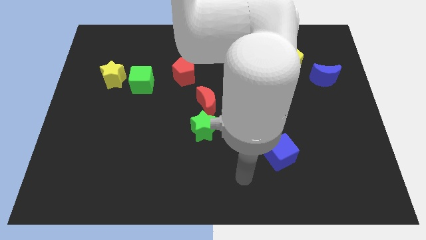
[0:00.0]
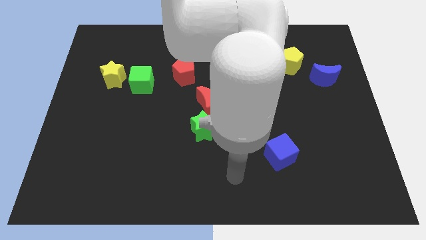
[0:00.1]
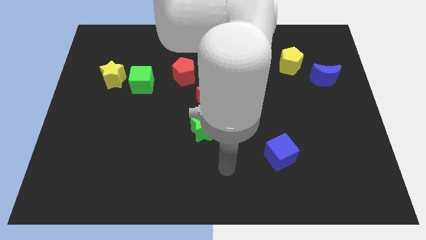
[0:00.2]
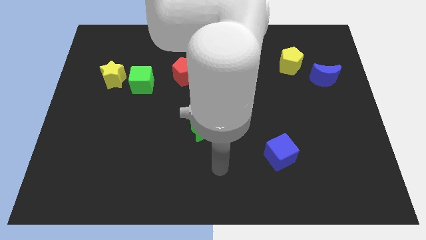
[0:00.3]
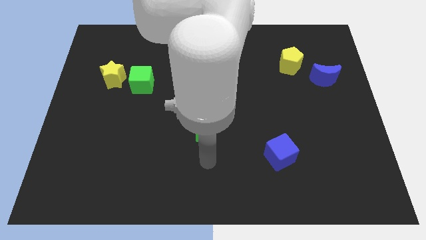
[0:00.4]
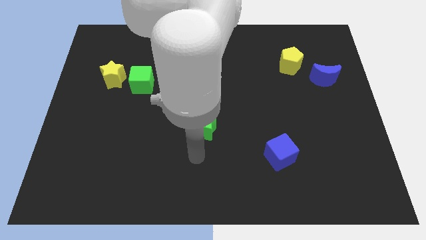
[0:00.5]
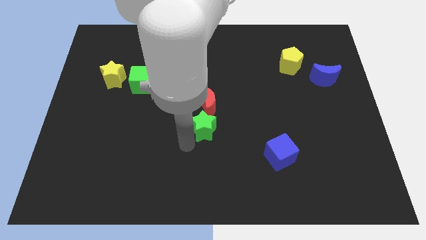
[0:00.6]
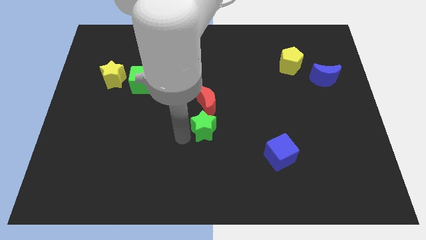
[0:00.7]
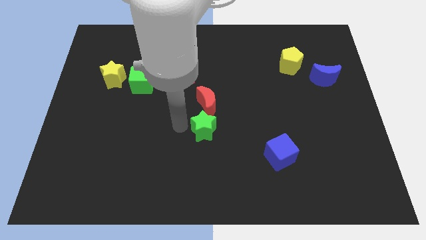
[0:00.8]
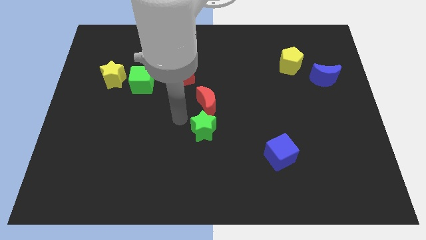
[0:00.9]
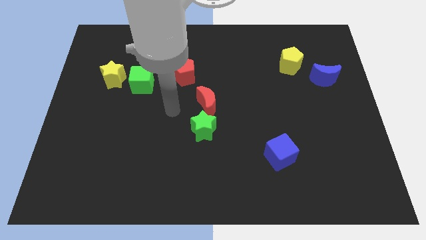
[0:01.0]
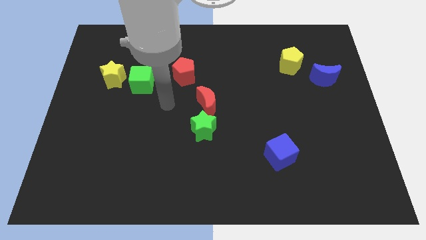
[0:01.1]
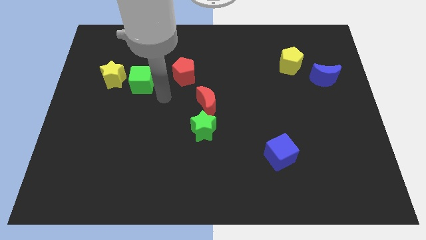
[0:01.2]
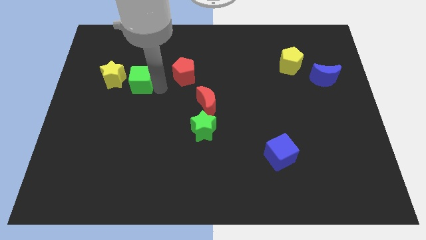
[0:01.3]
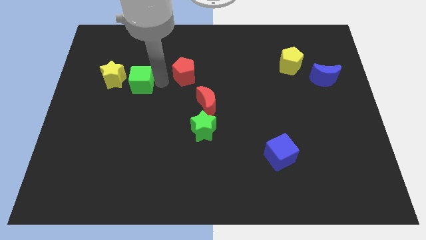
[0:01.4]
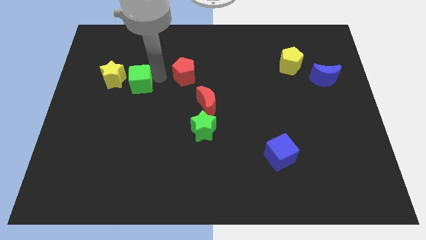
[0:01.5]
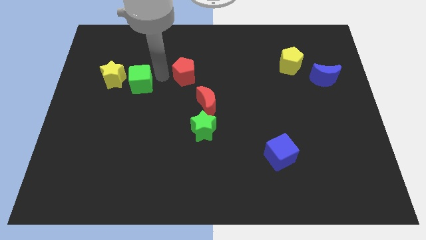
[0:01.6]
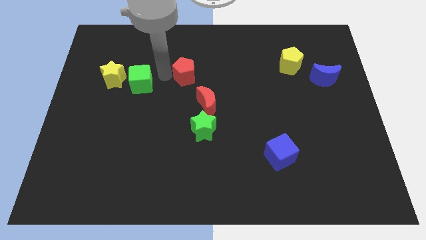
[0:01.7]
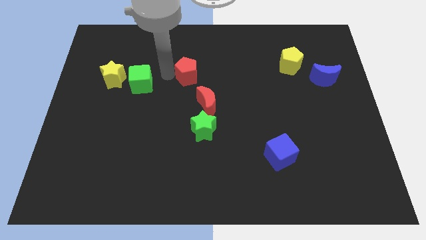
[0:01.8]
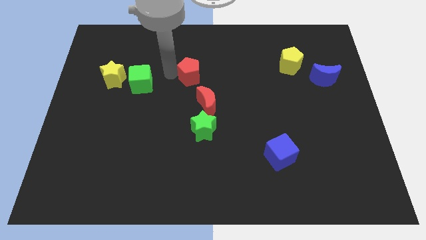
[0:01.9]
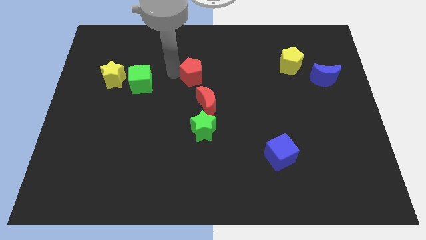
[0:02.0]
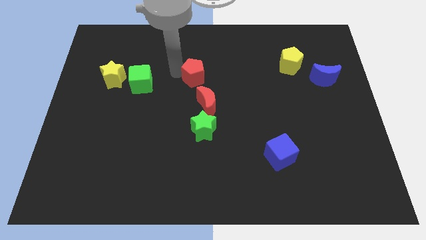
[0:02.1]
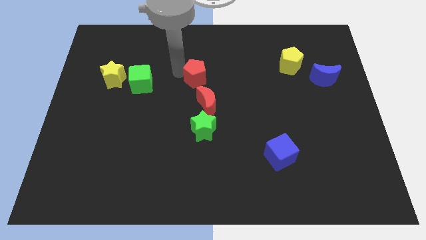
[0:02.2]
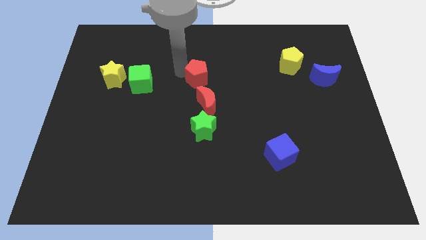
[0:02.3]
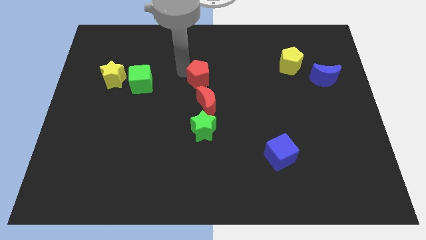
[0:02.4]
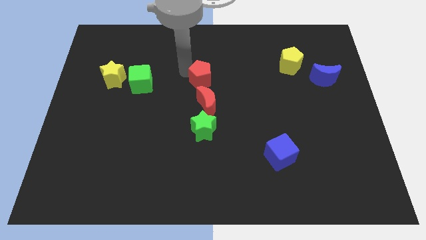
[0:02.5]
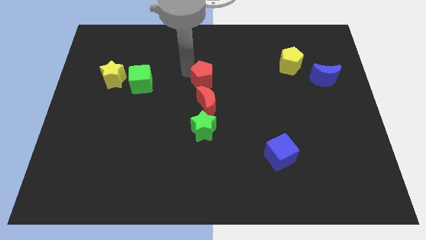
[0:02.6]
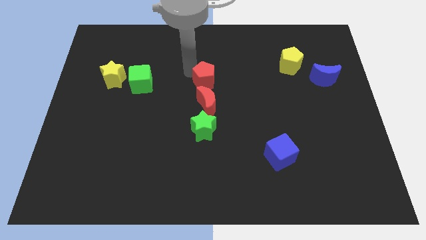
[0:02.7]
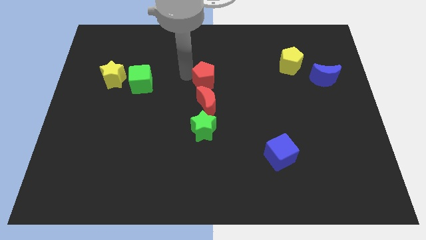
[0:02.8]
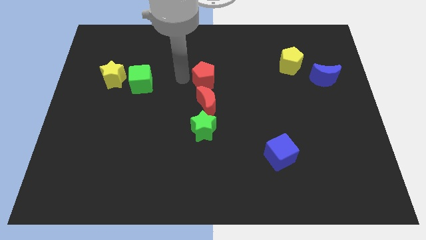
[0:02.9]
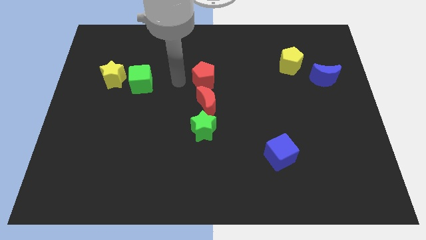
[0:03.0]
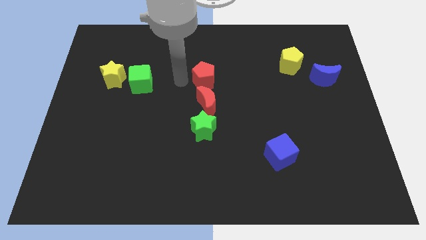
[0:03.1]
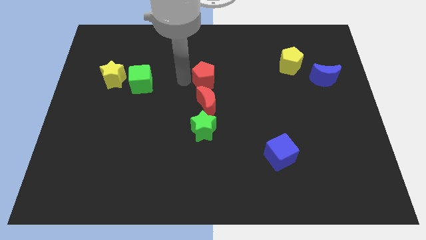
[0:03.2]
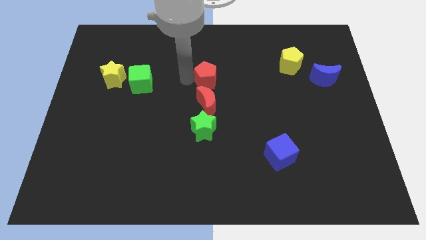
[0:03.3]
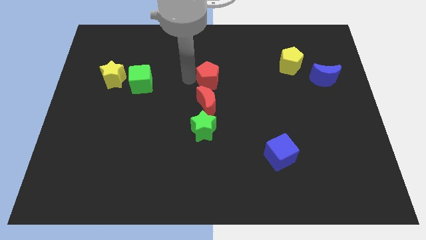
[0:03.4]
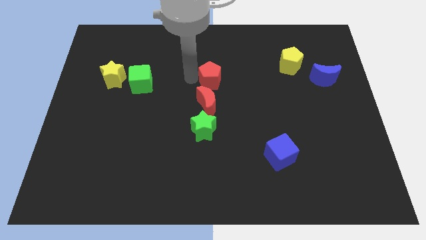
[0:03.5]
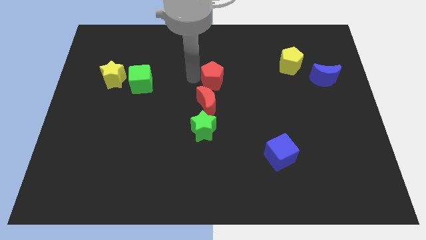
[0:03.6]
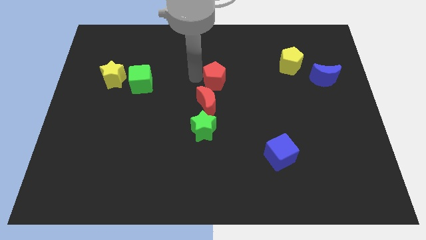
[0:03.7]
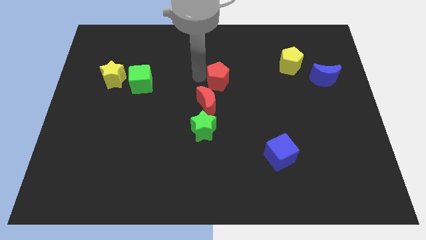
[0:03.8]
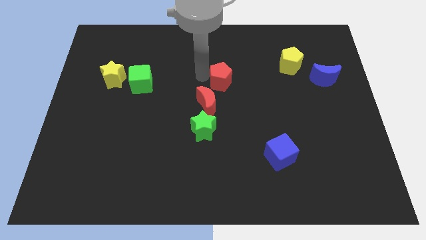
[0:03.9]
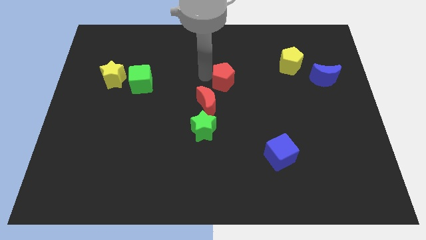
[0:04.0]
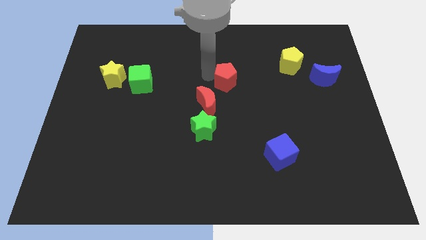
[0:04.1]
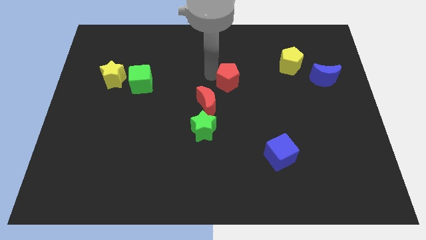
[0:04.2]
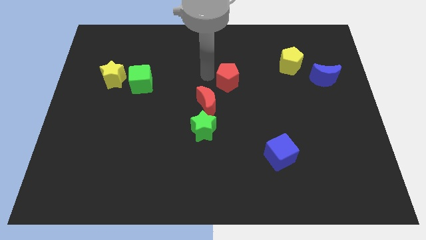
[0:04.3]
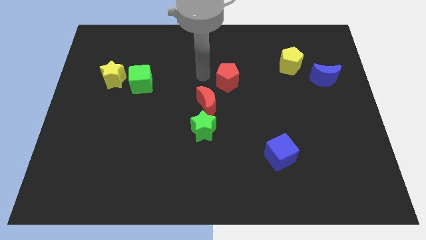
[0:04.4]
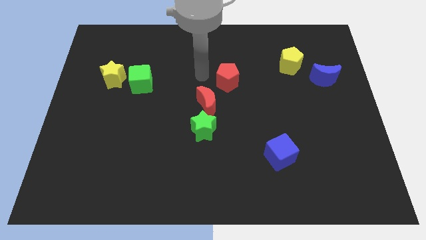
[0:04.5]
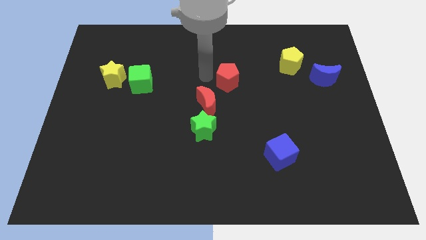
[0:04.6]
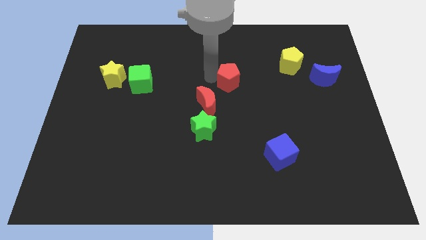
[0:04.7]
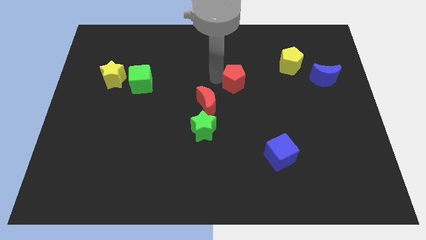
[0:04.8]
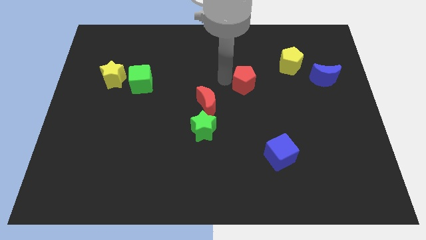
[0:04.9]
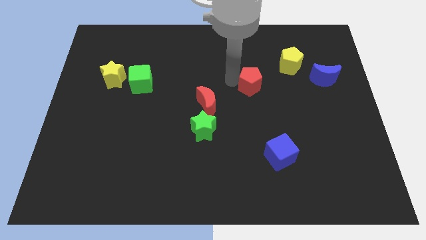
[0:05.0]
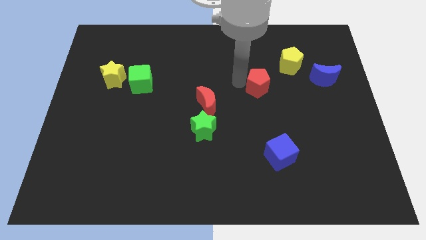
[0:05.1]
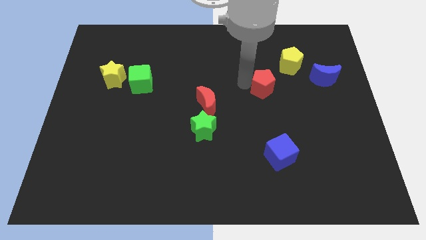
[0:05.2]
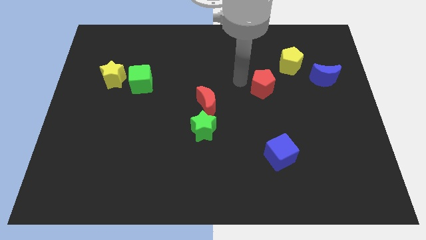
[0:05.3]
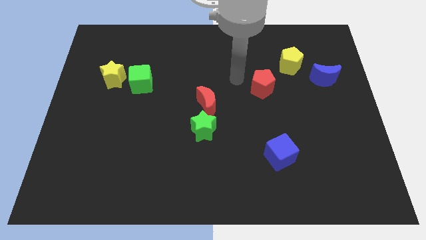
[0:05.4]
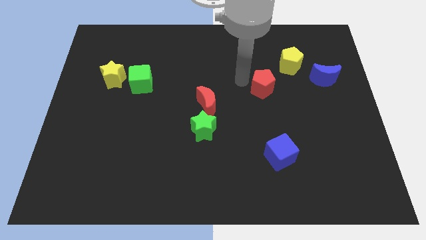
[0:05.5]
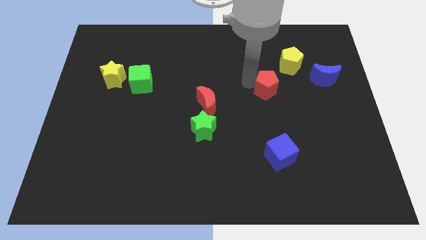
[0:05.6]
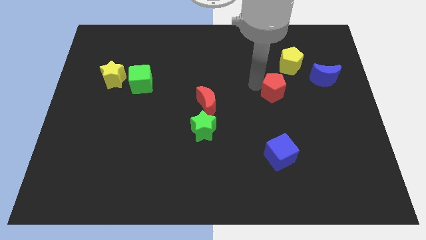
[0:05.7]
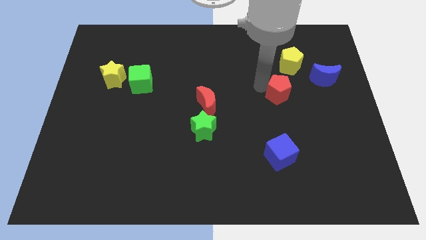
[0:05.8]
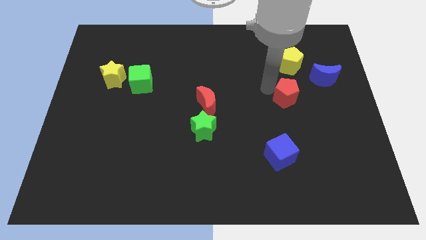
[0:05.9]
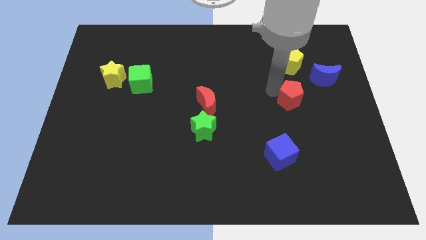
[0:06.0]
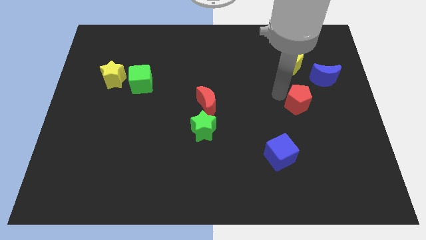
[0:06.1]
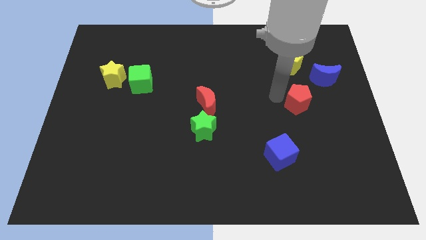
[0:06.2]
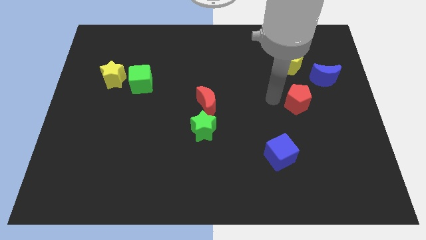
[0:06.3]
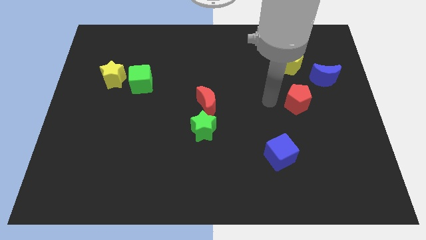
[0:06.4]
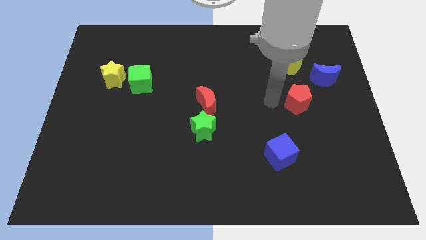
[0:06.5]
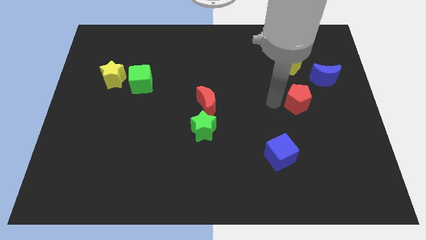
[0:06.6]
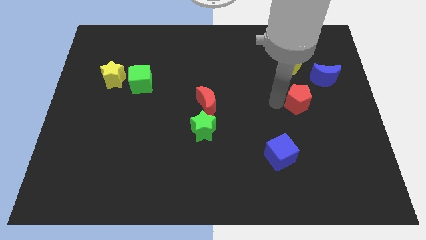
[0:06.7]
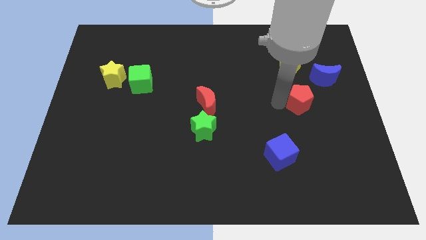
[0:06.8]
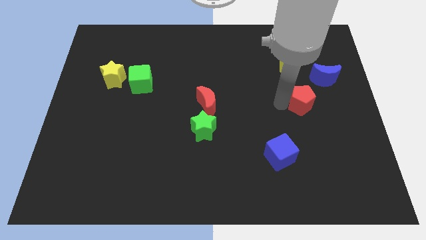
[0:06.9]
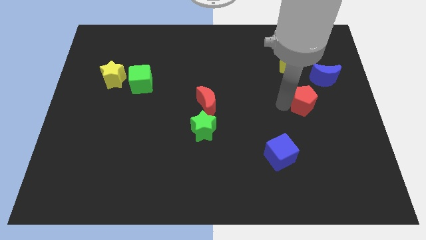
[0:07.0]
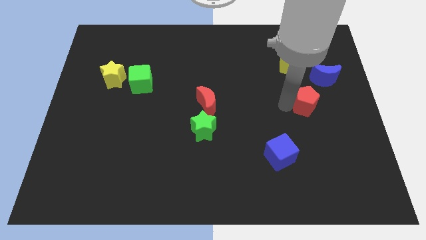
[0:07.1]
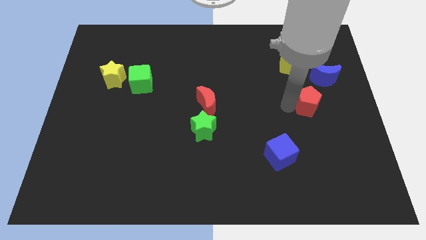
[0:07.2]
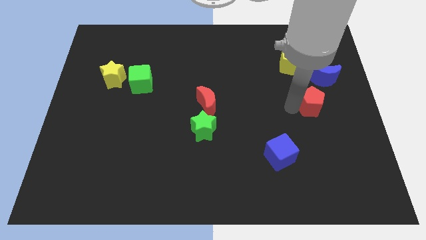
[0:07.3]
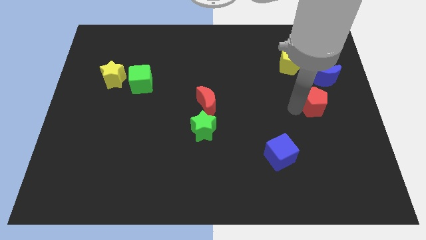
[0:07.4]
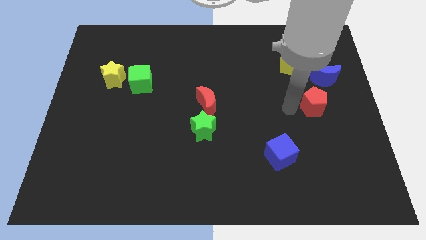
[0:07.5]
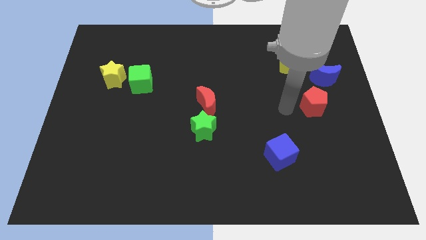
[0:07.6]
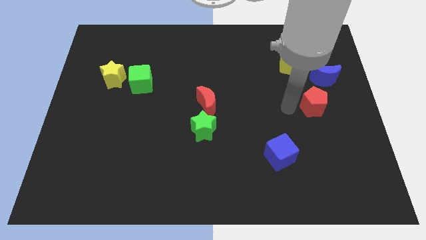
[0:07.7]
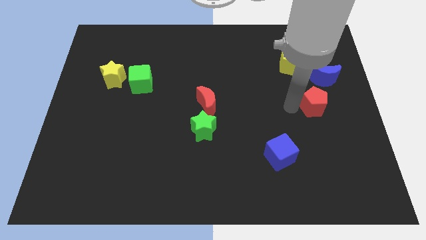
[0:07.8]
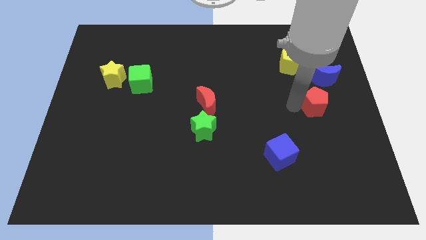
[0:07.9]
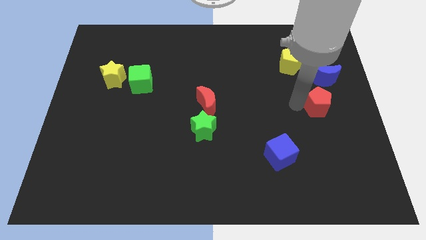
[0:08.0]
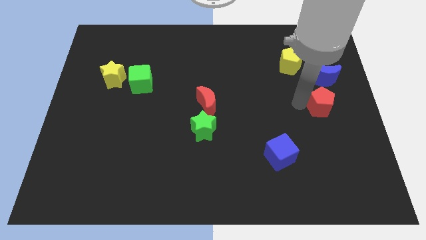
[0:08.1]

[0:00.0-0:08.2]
put the red pentagon to the right side
